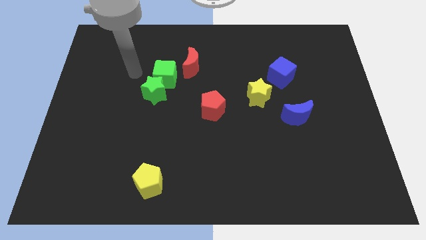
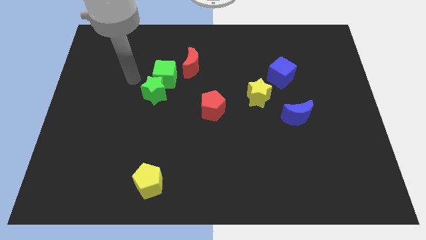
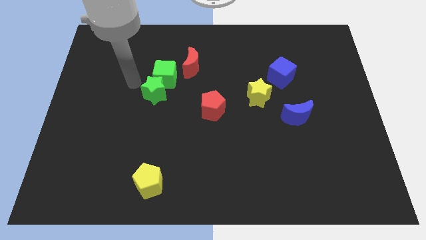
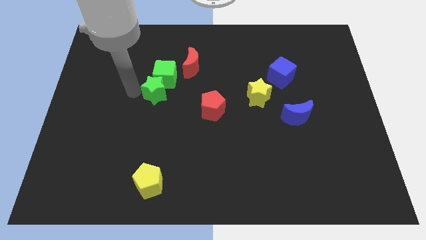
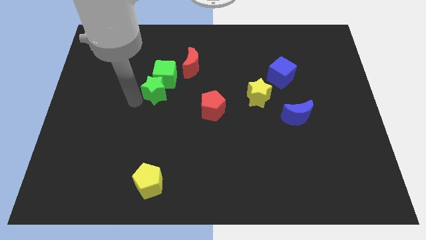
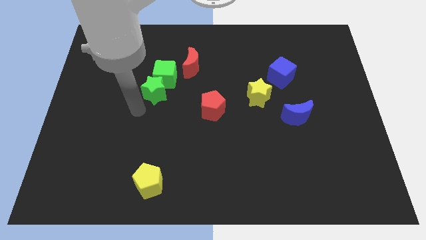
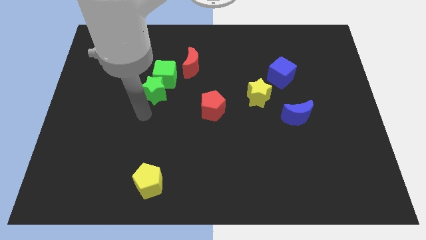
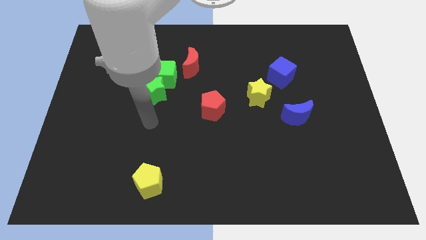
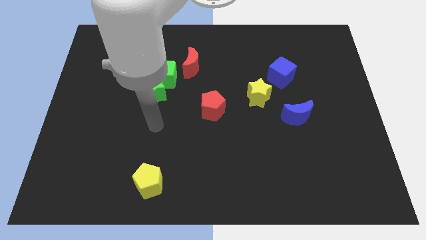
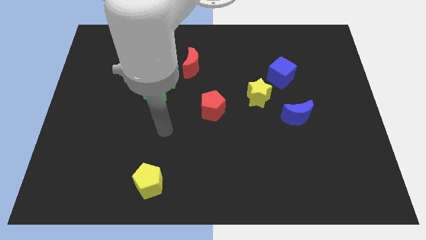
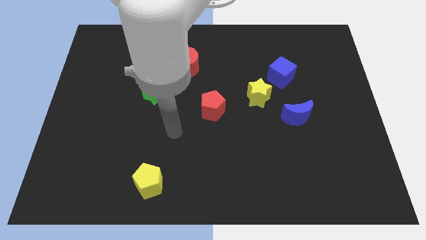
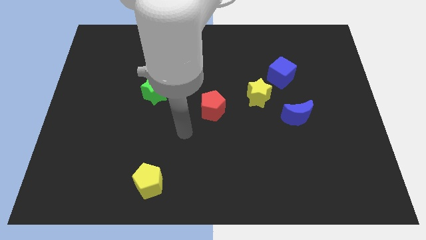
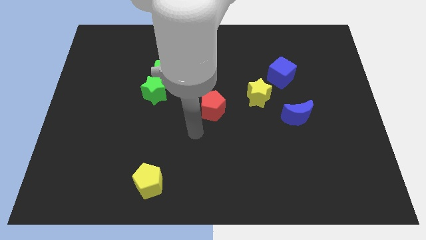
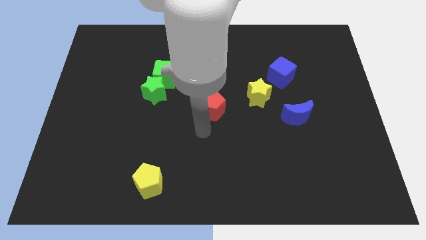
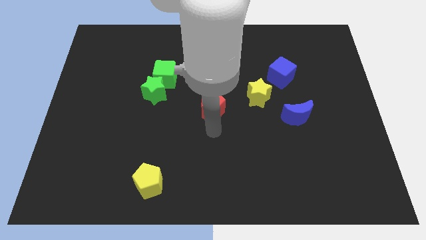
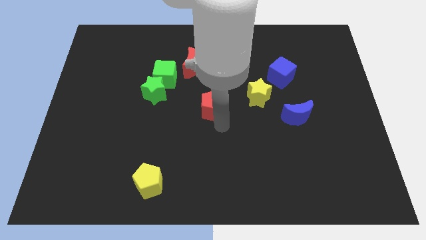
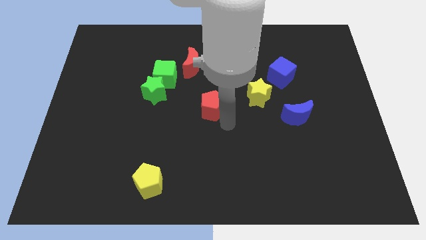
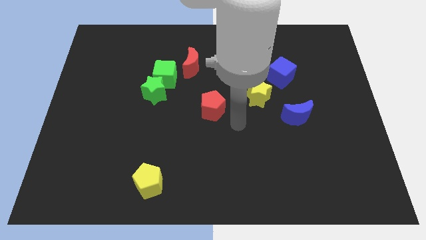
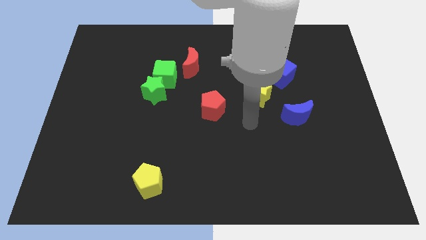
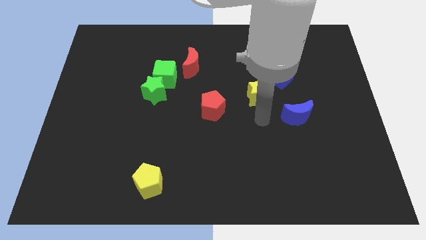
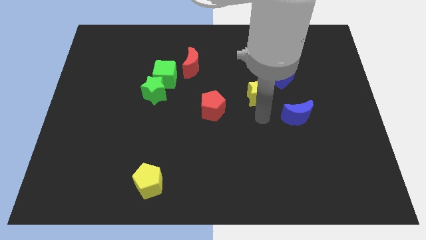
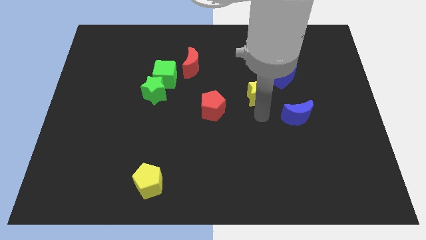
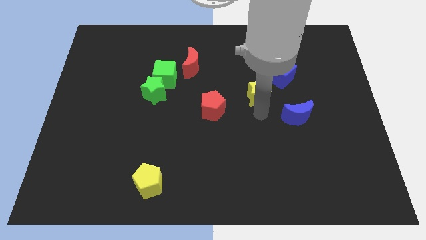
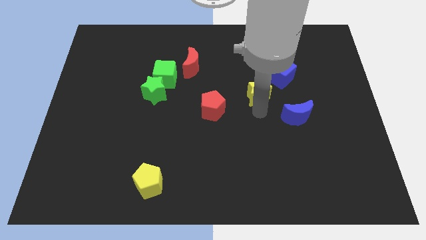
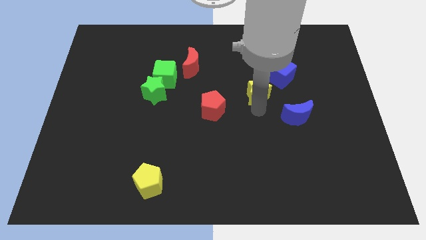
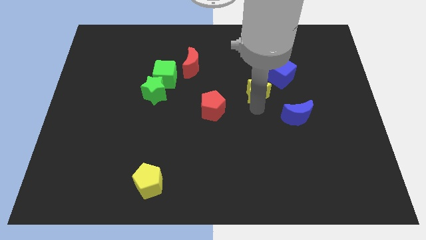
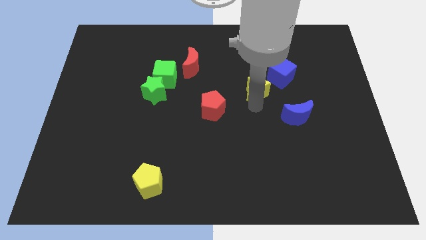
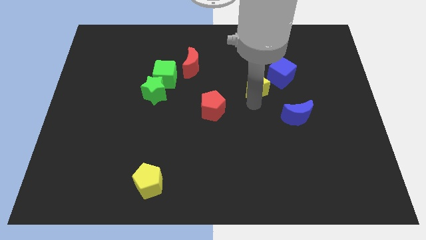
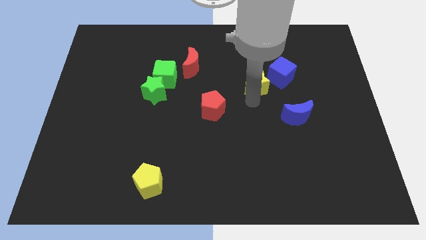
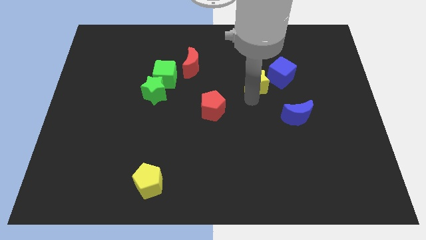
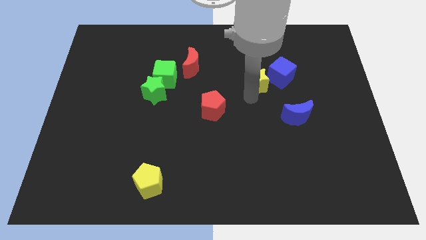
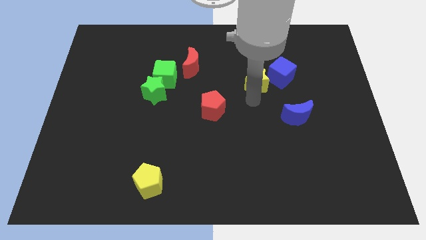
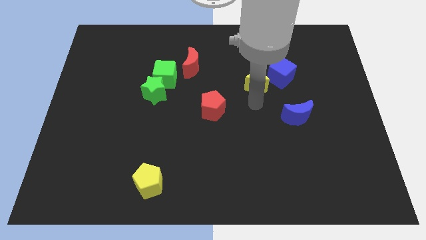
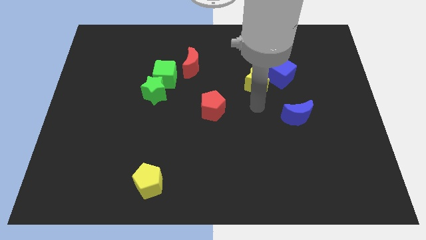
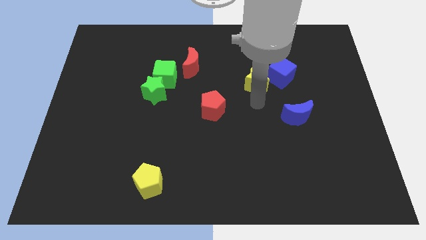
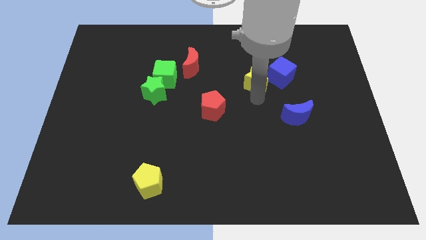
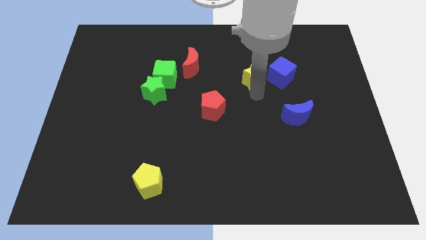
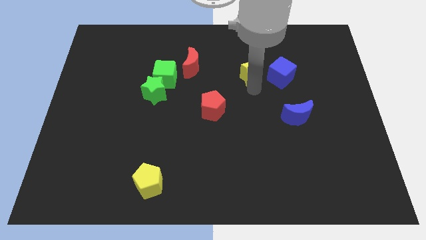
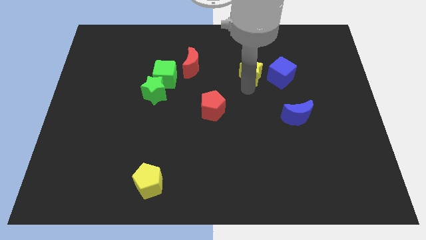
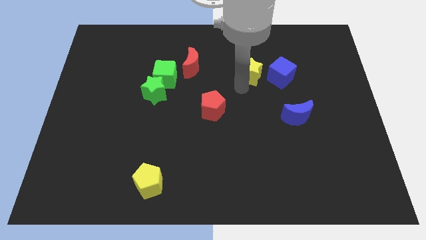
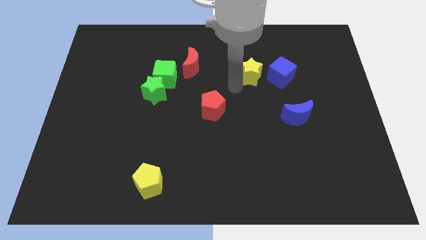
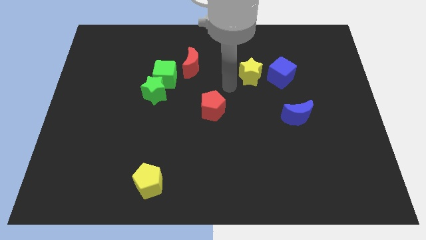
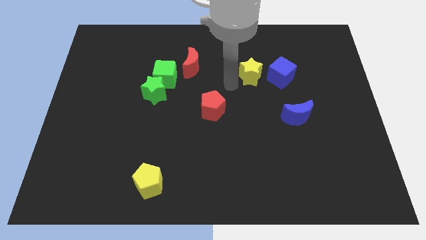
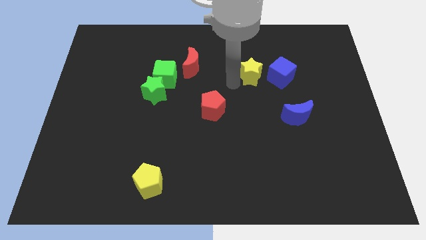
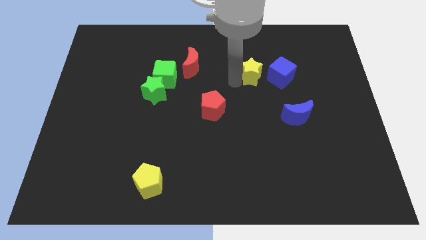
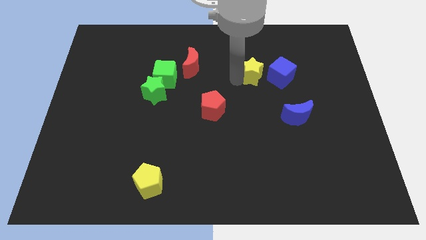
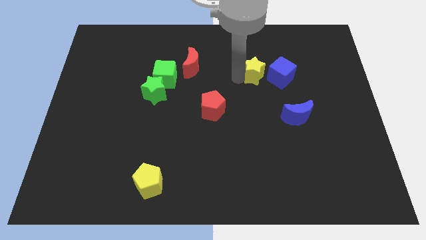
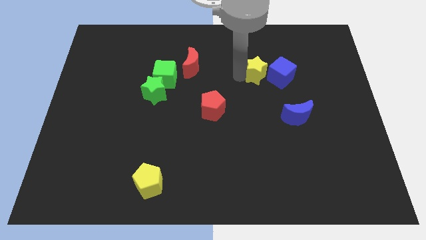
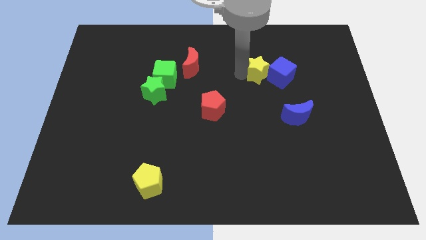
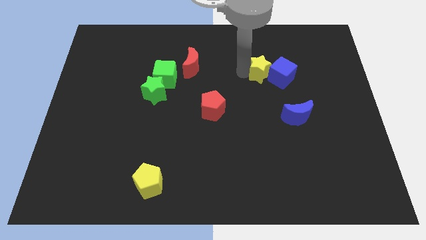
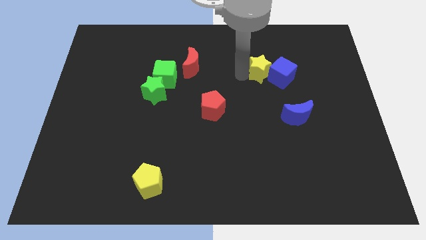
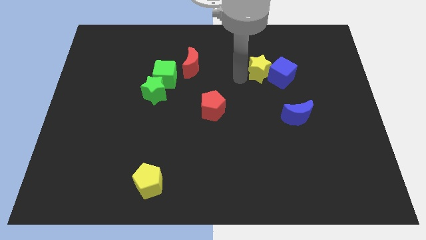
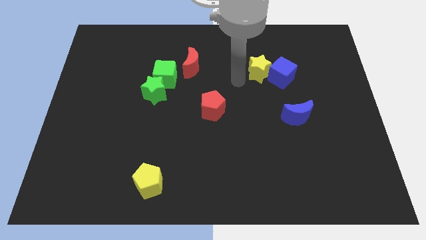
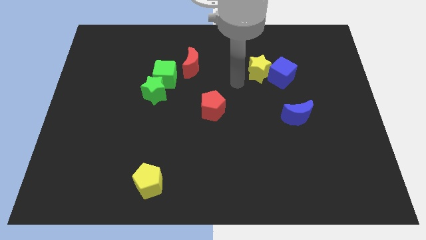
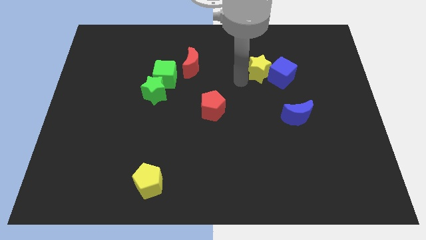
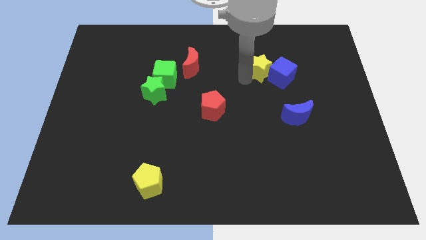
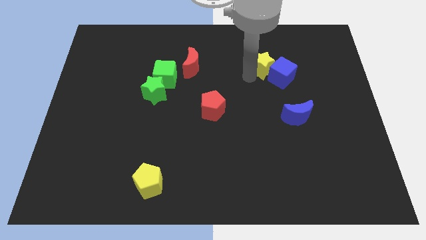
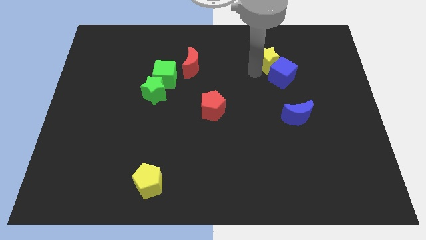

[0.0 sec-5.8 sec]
push the yellow star diagonally upwards and to the right a little bit

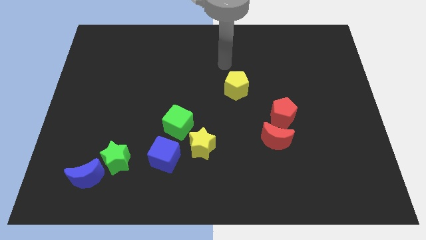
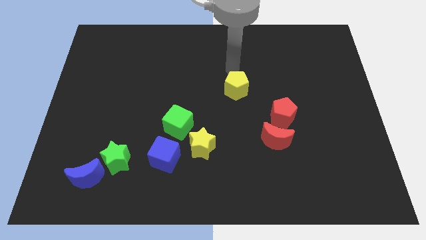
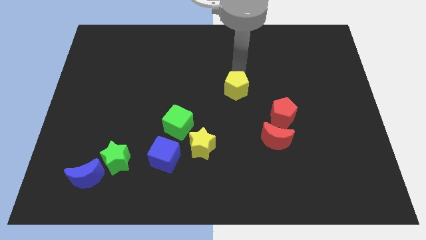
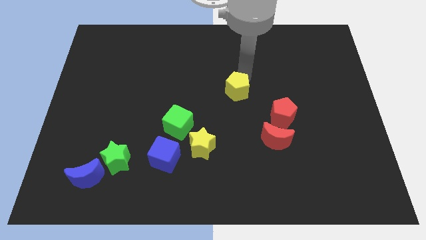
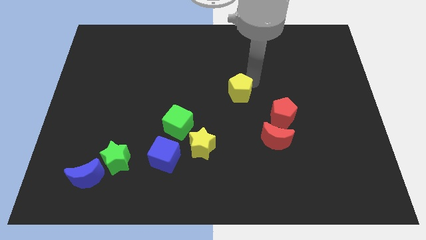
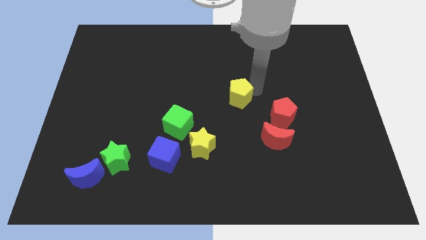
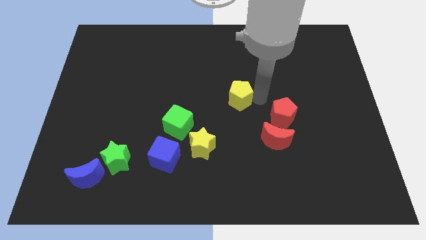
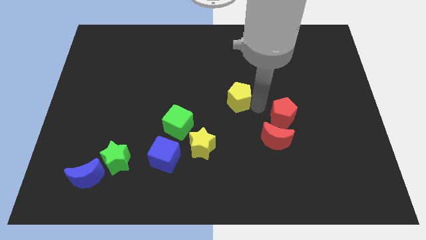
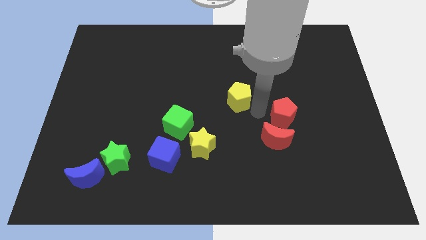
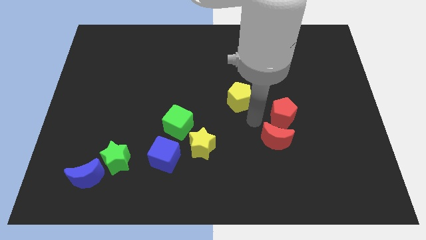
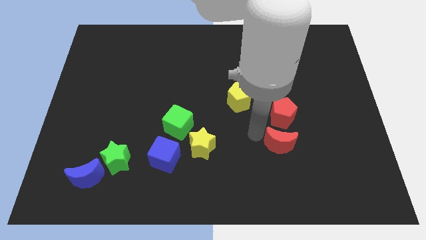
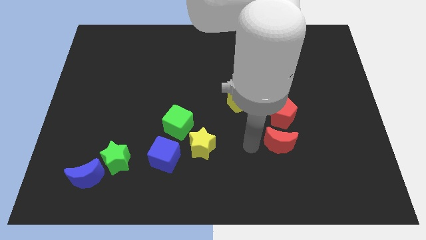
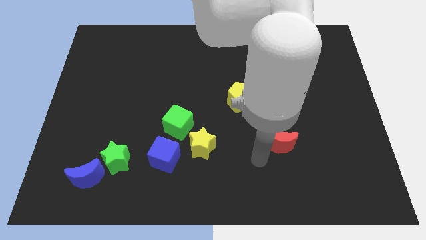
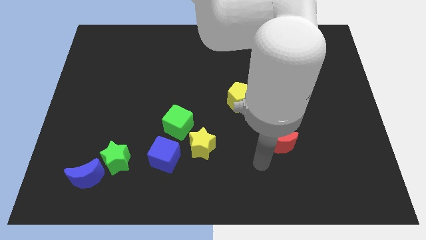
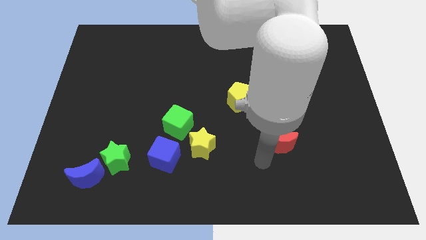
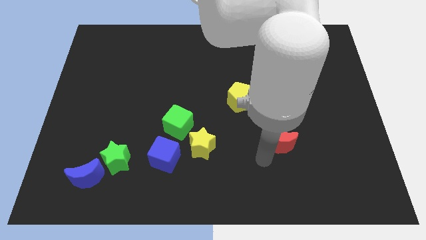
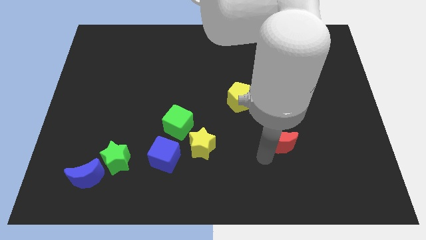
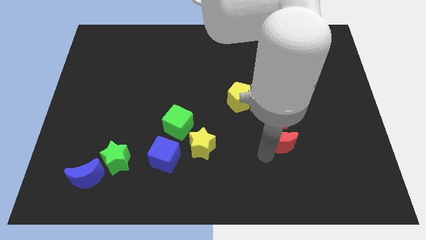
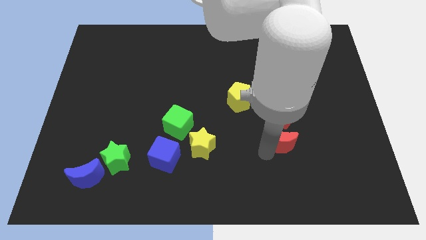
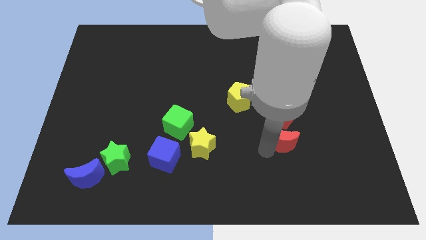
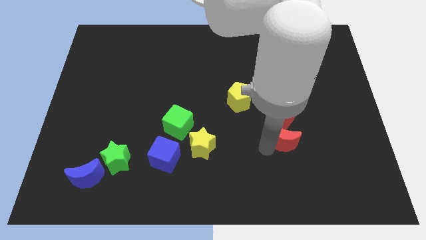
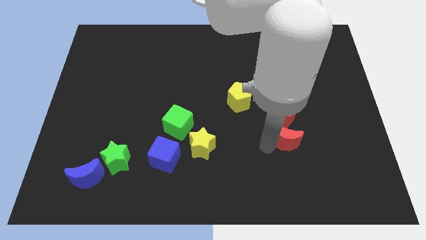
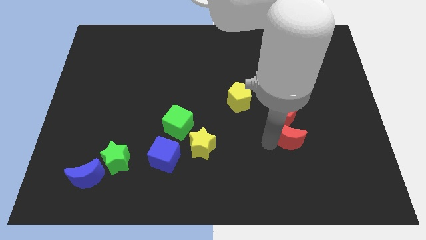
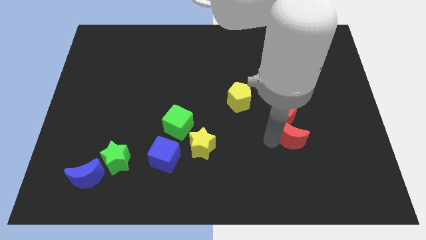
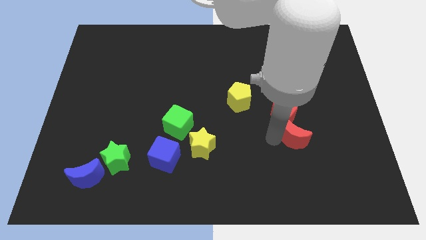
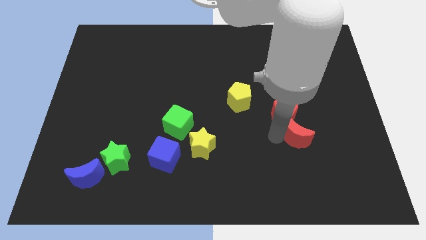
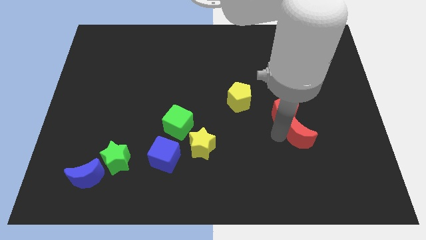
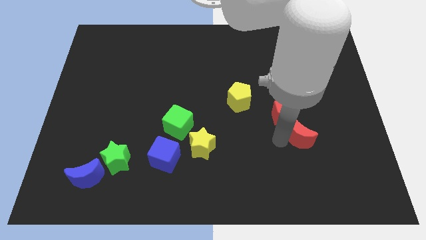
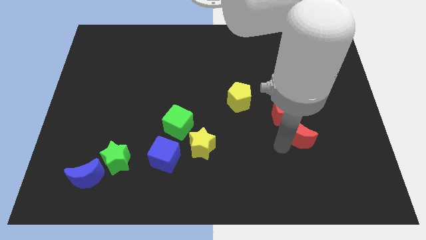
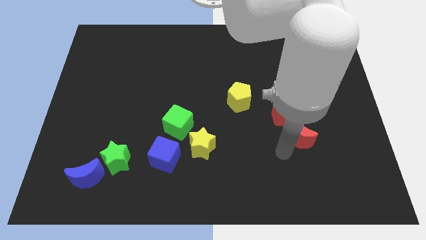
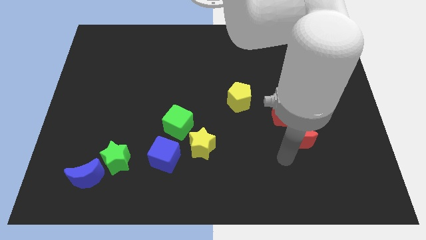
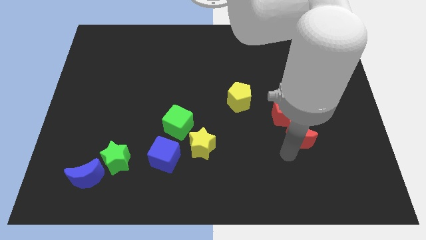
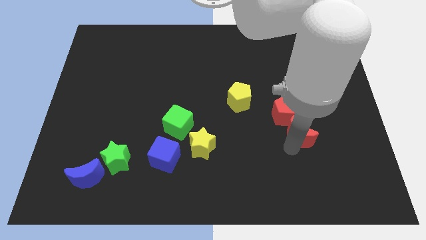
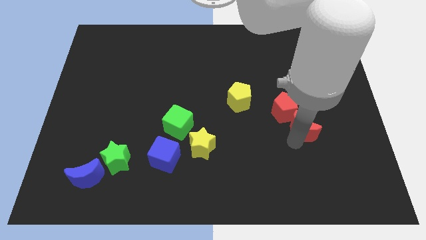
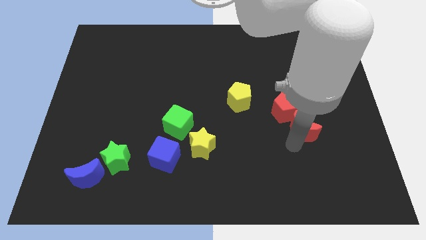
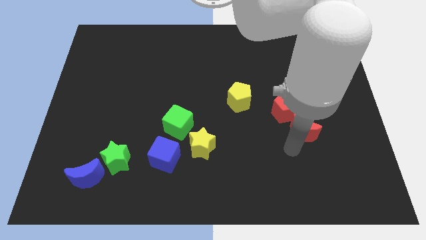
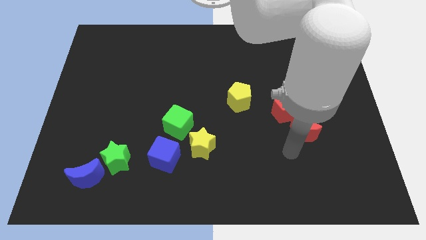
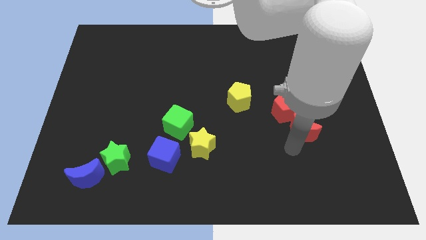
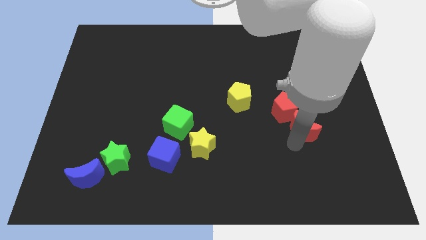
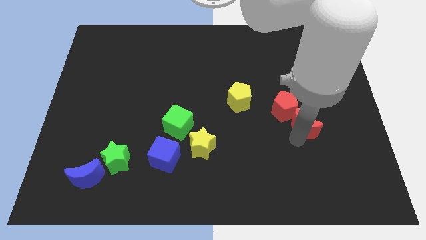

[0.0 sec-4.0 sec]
slightly push the red moon up and to the right
